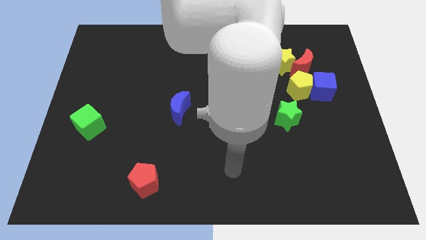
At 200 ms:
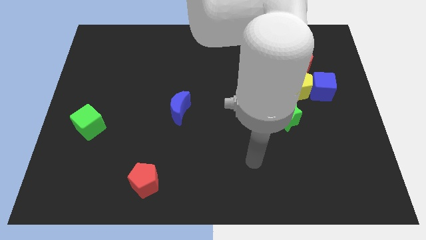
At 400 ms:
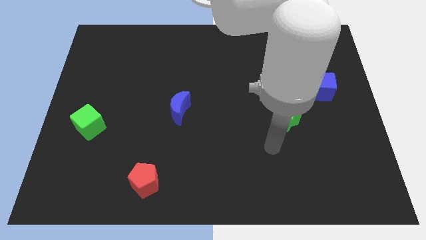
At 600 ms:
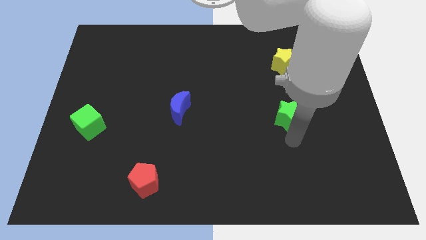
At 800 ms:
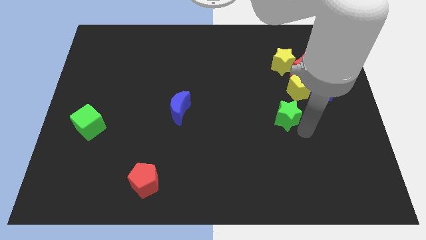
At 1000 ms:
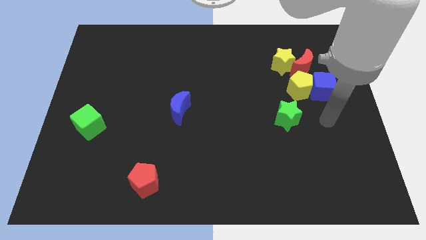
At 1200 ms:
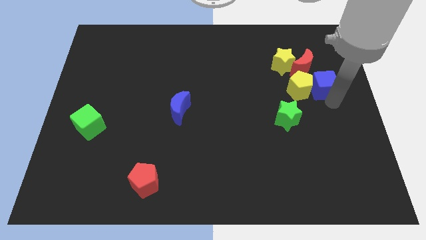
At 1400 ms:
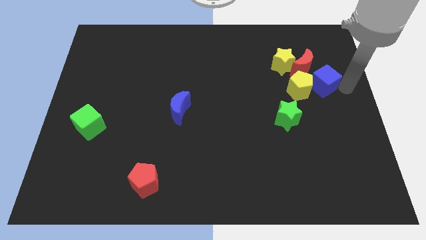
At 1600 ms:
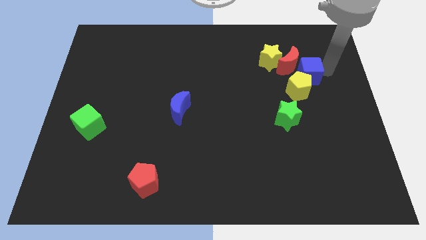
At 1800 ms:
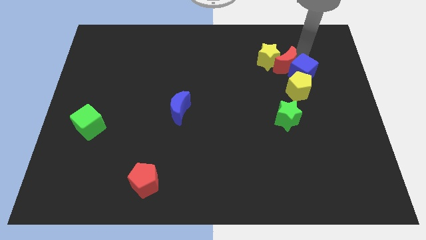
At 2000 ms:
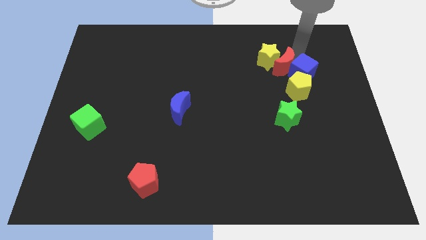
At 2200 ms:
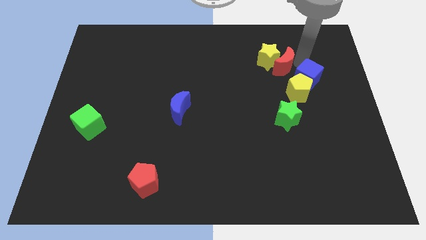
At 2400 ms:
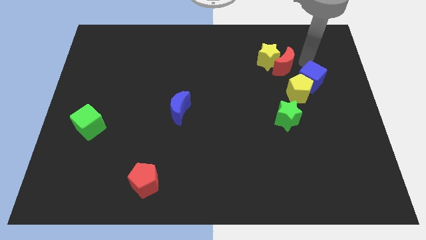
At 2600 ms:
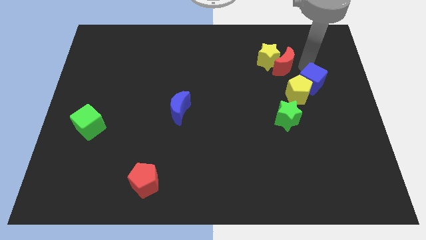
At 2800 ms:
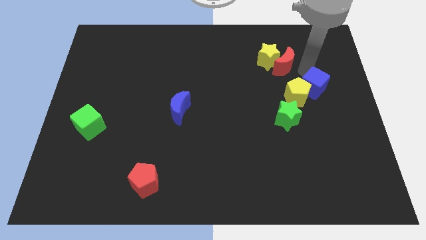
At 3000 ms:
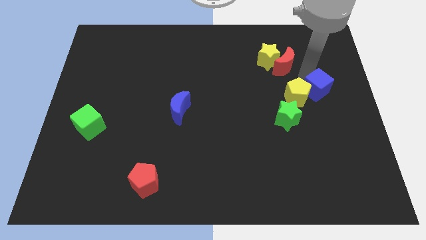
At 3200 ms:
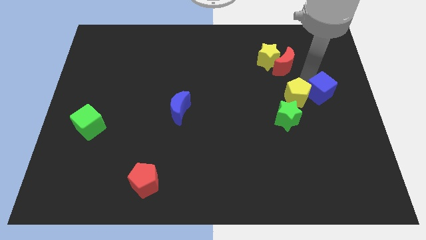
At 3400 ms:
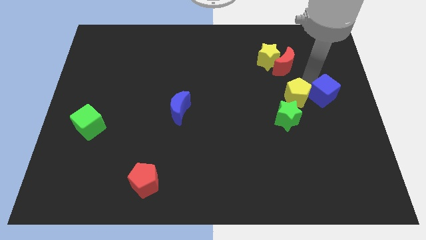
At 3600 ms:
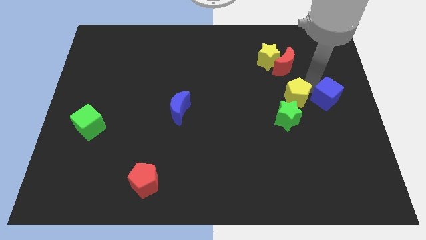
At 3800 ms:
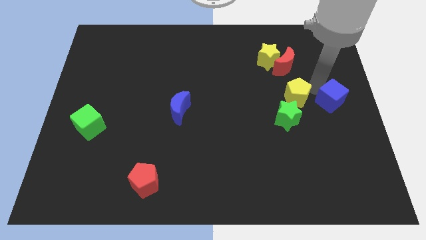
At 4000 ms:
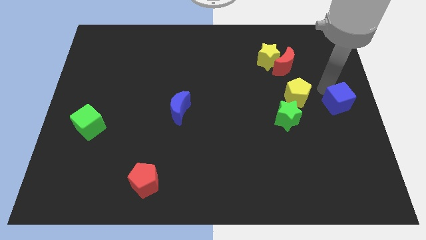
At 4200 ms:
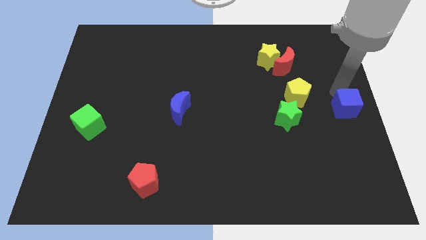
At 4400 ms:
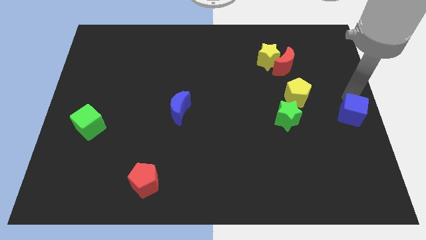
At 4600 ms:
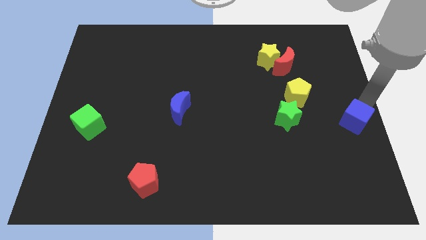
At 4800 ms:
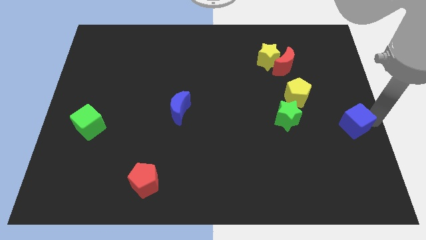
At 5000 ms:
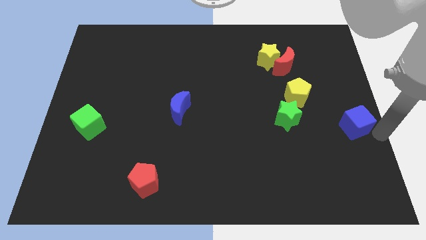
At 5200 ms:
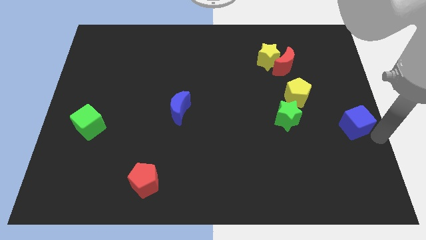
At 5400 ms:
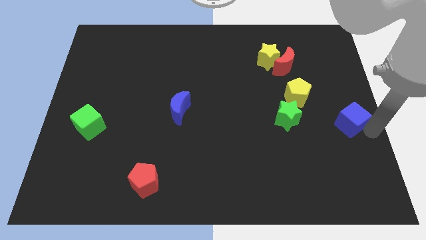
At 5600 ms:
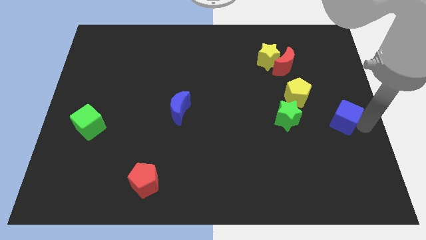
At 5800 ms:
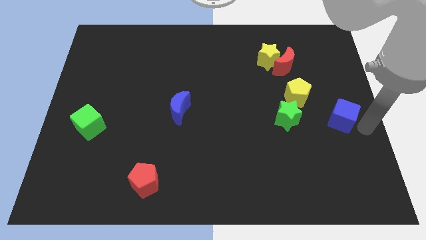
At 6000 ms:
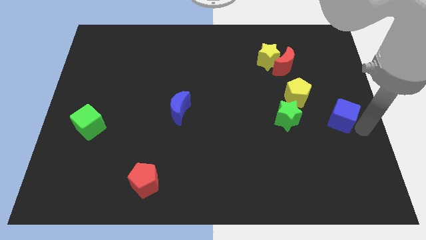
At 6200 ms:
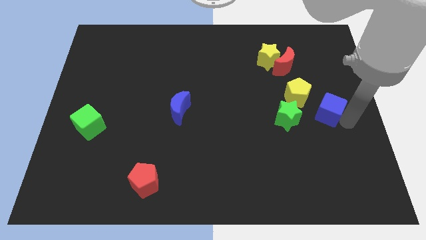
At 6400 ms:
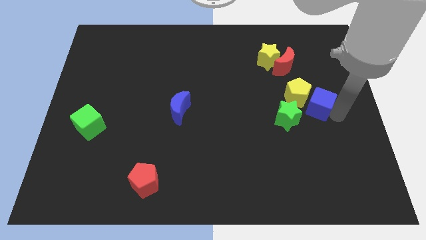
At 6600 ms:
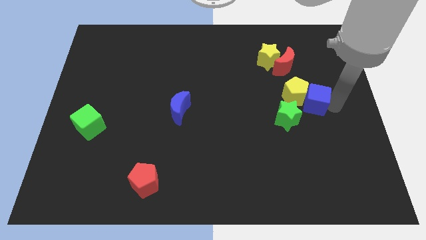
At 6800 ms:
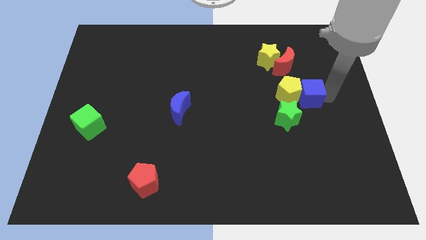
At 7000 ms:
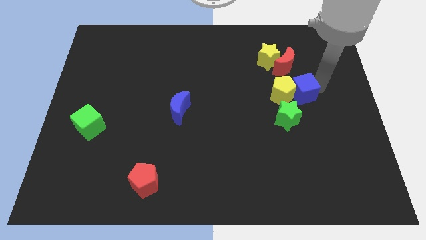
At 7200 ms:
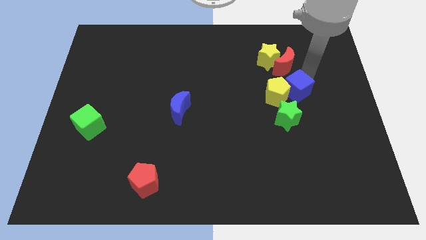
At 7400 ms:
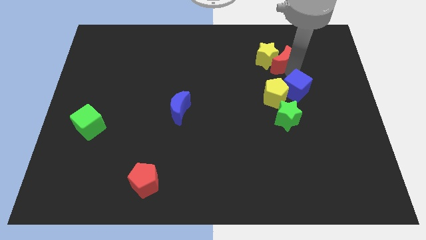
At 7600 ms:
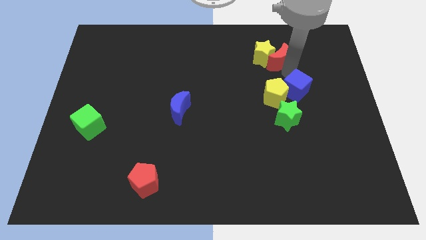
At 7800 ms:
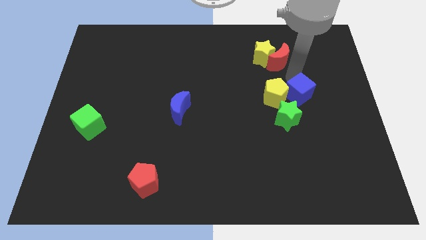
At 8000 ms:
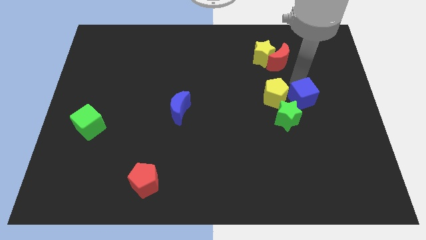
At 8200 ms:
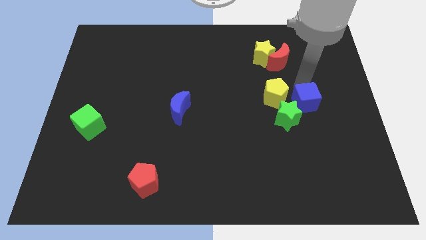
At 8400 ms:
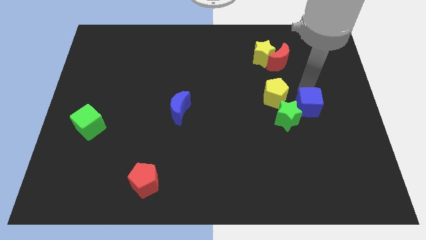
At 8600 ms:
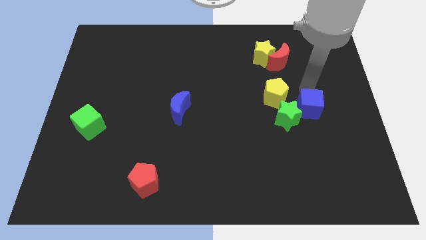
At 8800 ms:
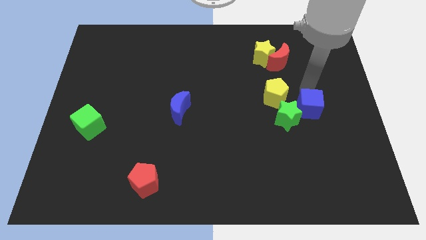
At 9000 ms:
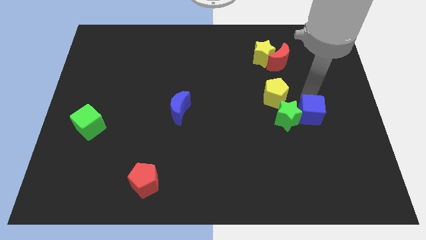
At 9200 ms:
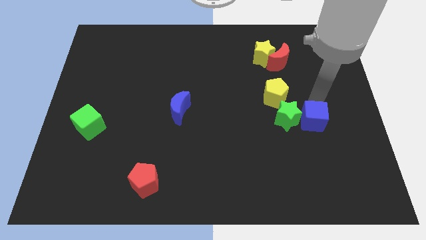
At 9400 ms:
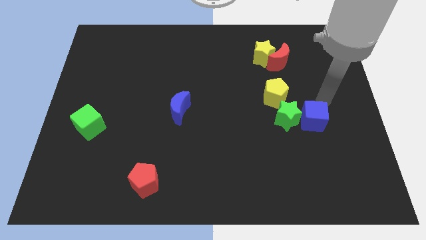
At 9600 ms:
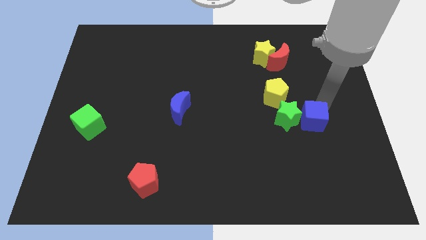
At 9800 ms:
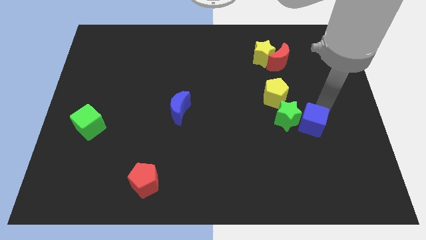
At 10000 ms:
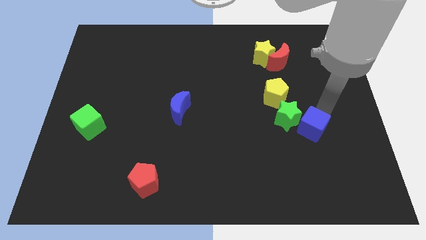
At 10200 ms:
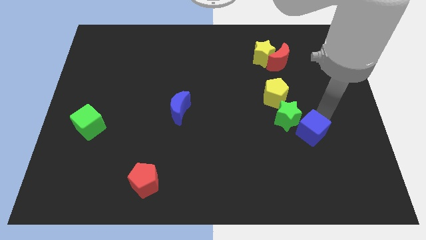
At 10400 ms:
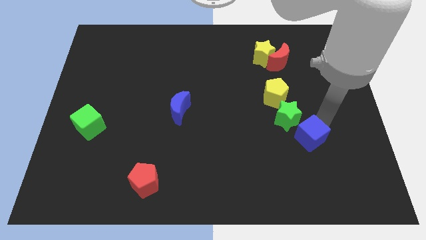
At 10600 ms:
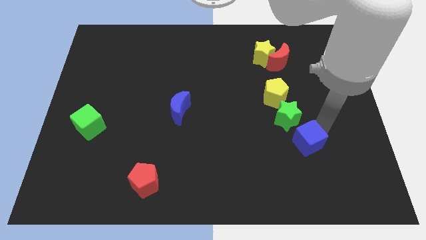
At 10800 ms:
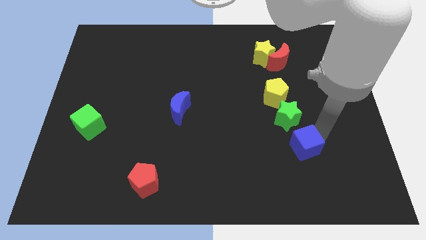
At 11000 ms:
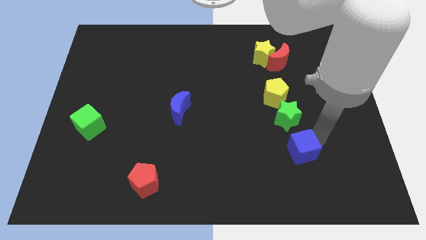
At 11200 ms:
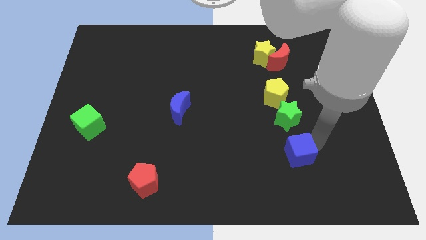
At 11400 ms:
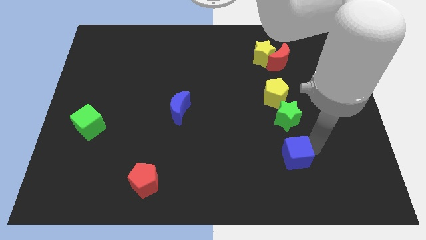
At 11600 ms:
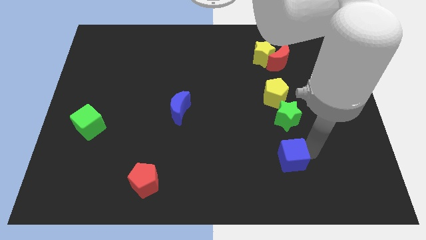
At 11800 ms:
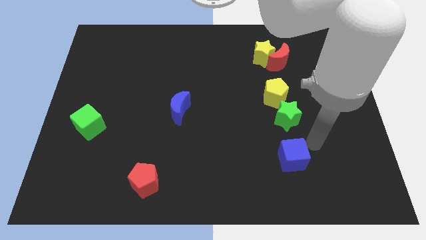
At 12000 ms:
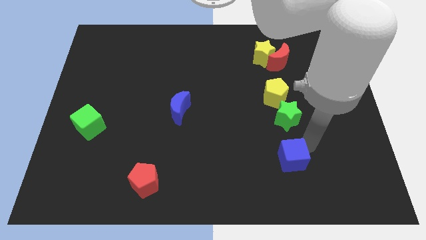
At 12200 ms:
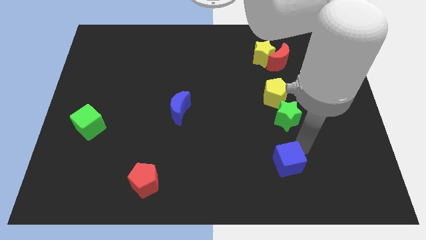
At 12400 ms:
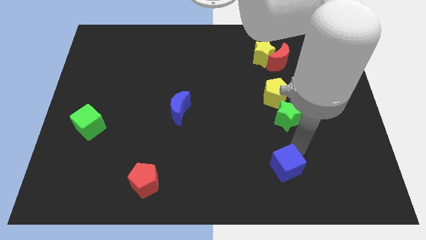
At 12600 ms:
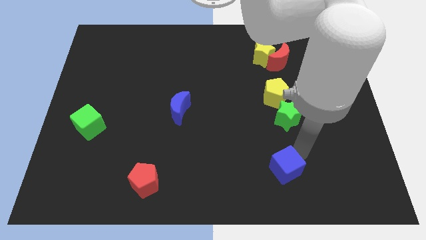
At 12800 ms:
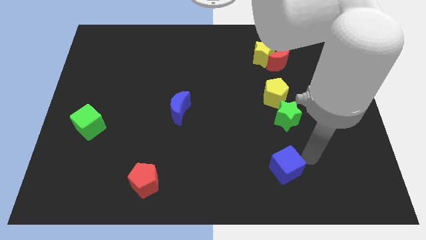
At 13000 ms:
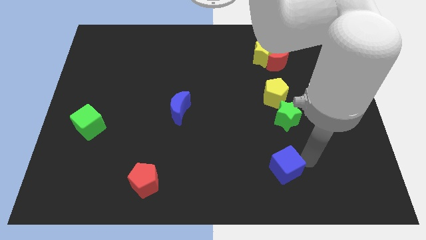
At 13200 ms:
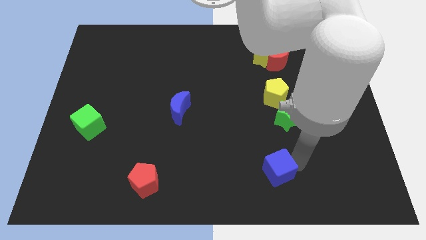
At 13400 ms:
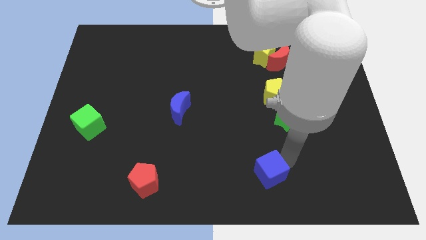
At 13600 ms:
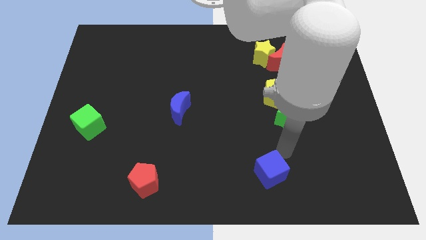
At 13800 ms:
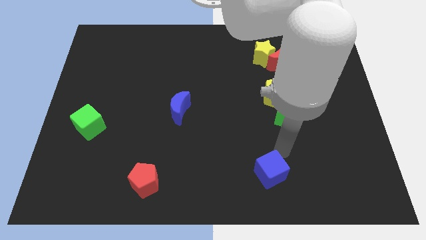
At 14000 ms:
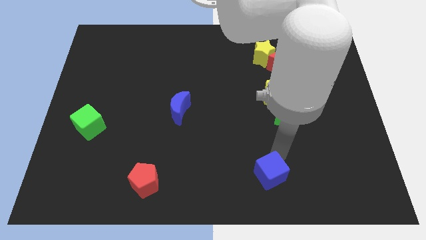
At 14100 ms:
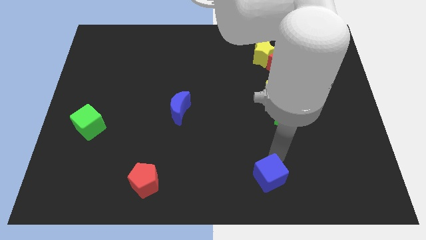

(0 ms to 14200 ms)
move the blue cube to the bottom side
